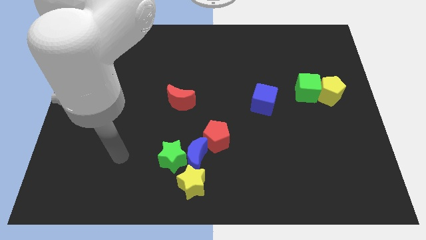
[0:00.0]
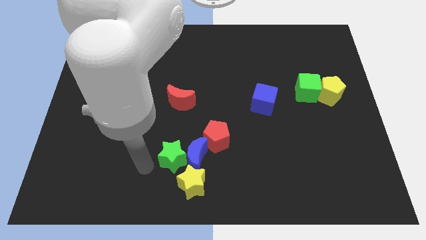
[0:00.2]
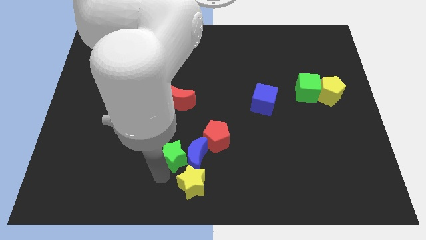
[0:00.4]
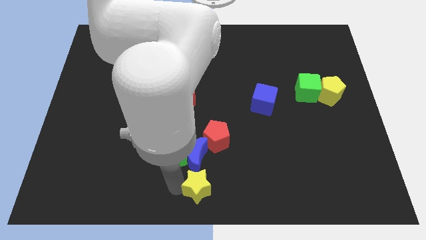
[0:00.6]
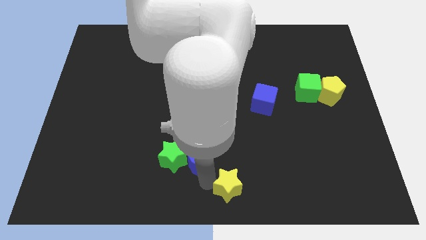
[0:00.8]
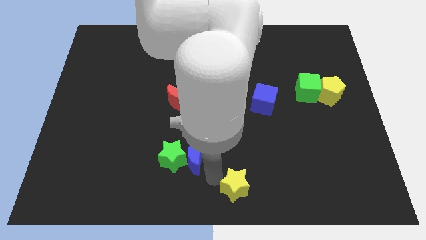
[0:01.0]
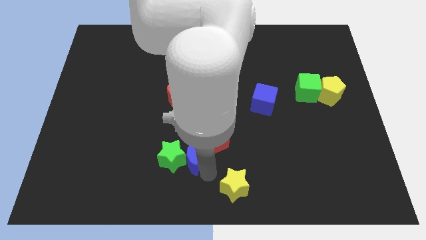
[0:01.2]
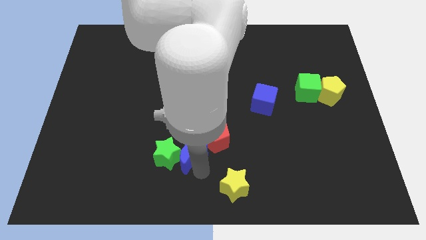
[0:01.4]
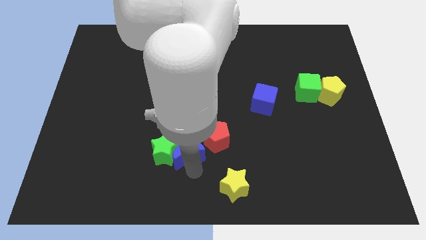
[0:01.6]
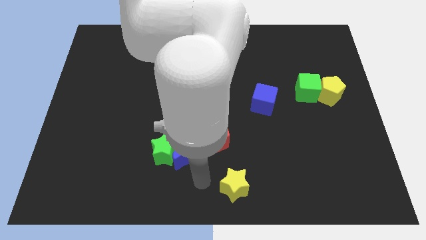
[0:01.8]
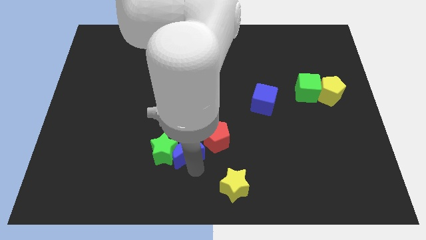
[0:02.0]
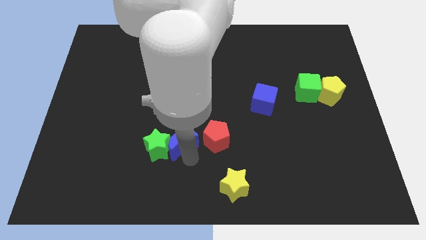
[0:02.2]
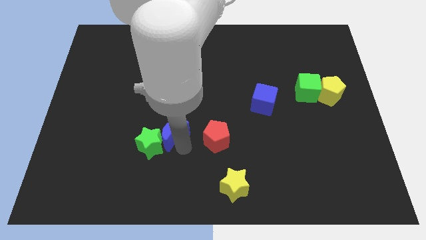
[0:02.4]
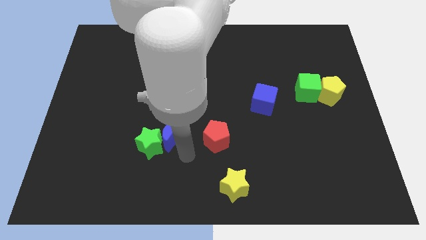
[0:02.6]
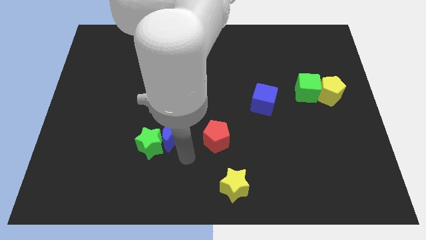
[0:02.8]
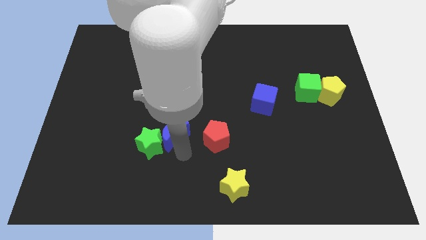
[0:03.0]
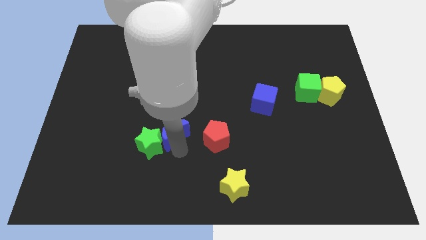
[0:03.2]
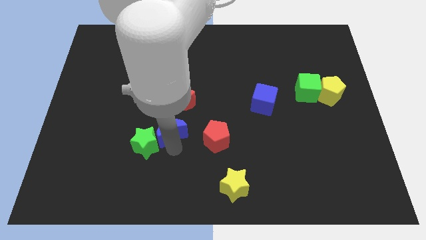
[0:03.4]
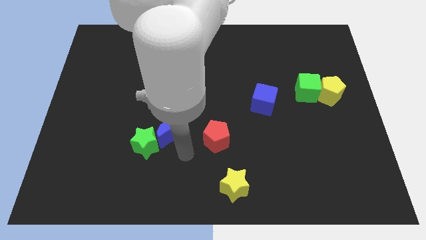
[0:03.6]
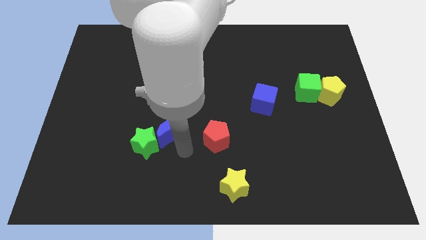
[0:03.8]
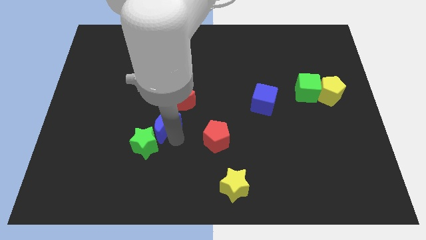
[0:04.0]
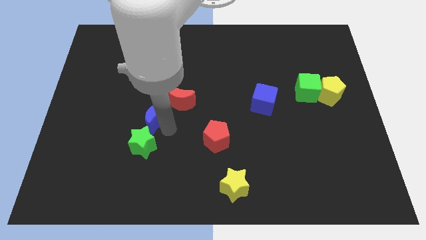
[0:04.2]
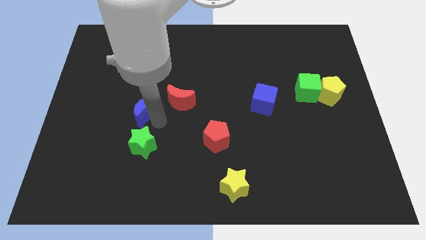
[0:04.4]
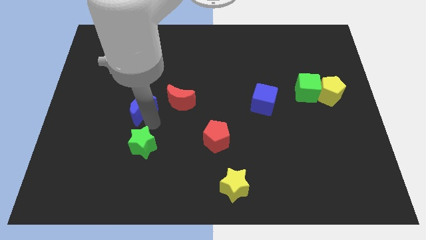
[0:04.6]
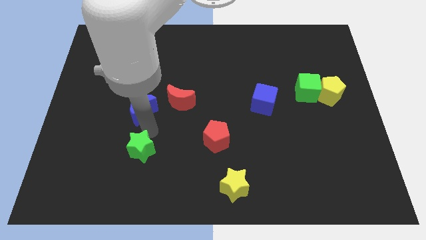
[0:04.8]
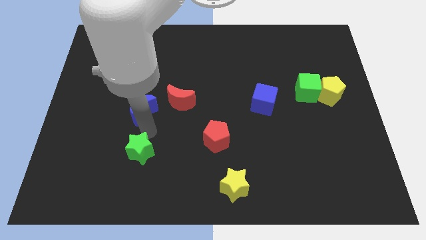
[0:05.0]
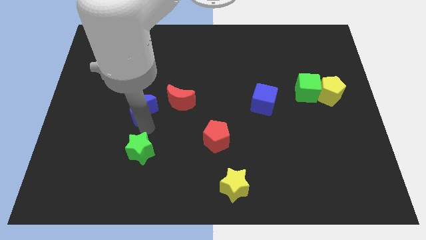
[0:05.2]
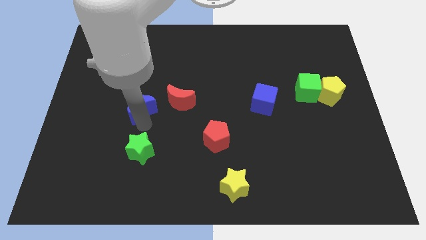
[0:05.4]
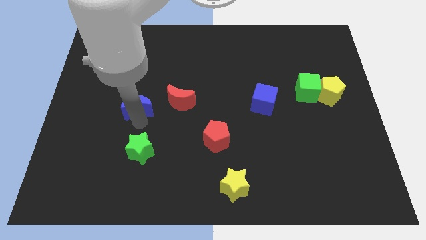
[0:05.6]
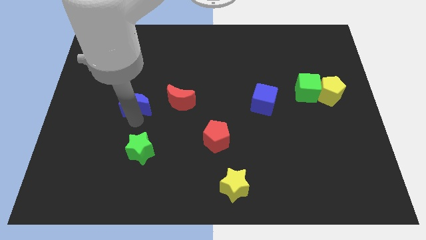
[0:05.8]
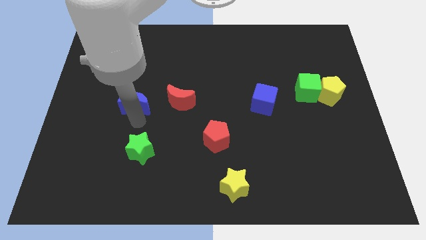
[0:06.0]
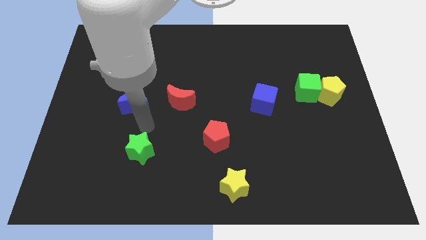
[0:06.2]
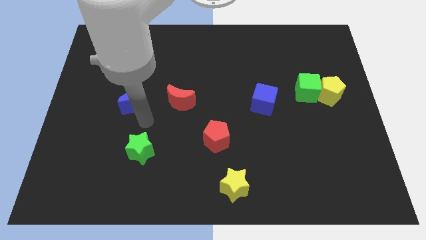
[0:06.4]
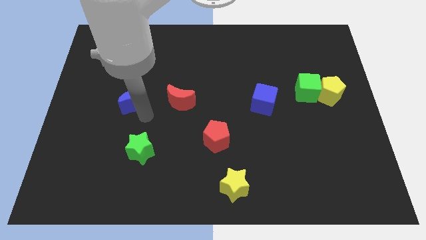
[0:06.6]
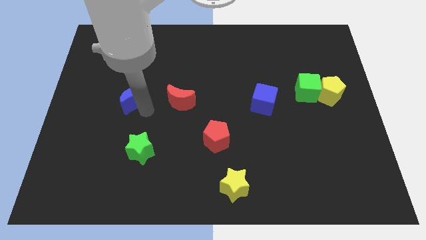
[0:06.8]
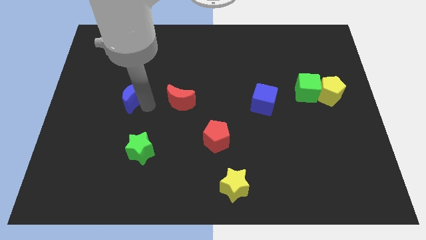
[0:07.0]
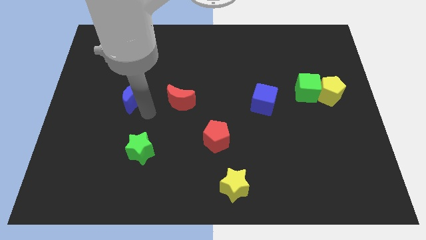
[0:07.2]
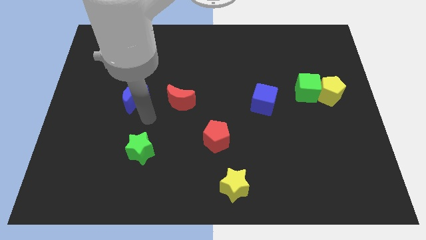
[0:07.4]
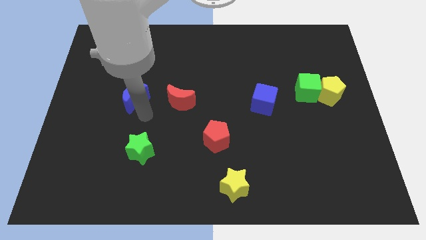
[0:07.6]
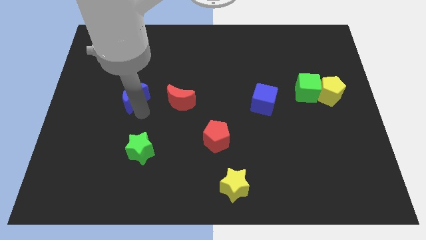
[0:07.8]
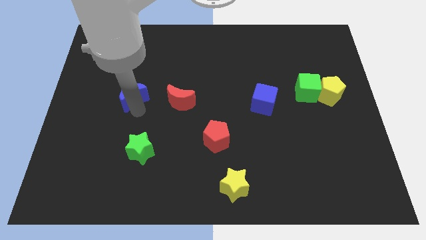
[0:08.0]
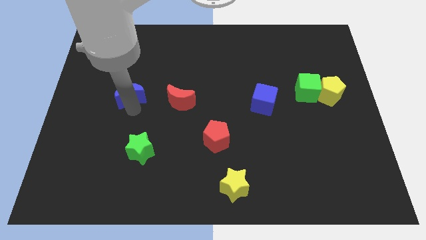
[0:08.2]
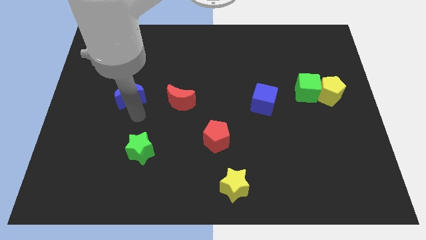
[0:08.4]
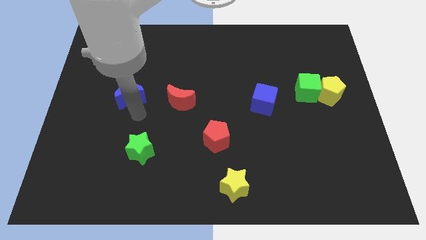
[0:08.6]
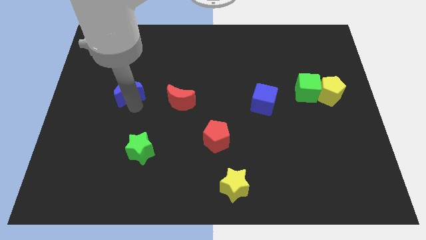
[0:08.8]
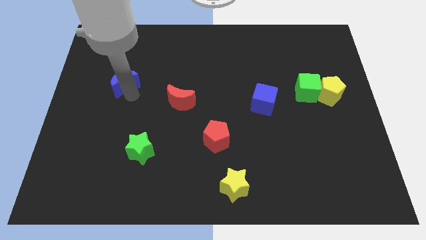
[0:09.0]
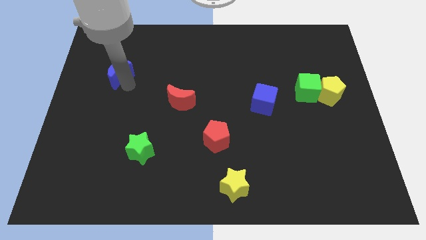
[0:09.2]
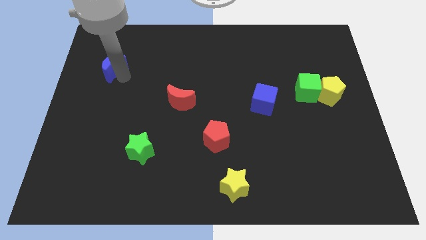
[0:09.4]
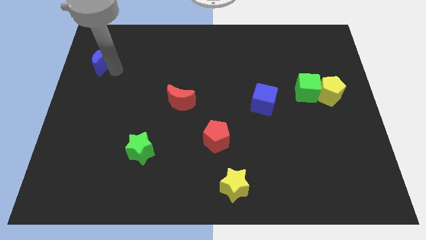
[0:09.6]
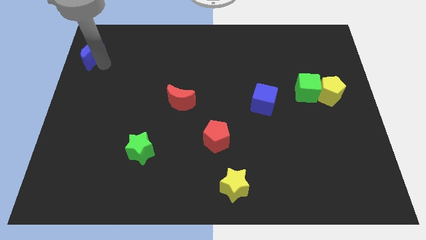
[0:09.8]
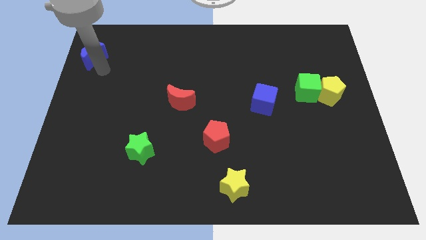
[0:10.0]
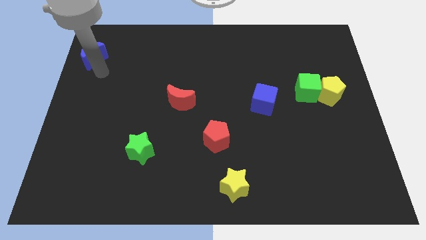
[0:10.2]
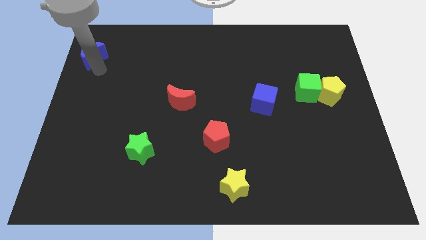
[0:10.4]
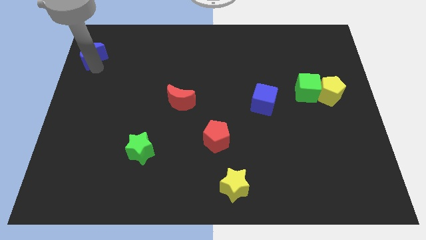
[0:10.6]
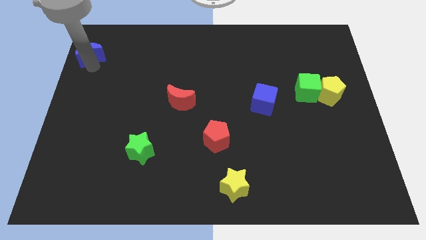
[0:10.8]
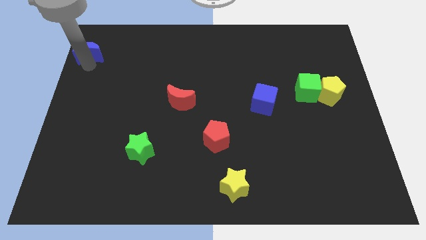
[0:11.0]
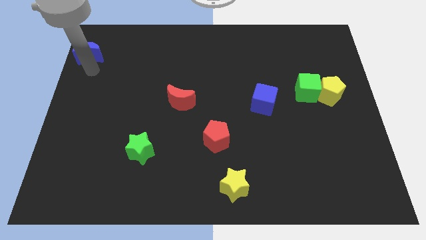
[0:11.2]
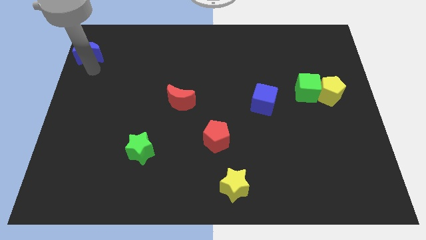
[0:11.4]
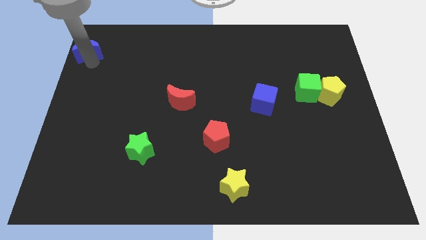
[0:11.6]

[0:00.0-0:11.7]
put the blue moon to the upper left corner

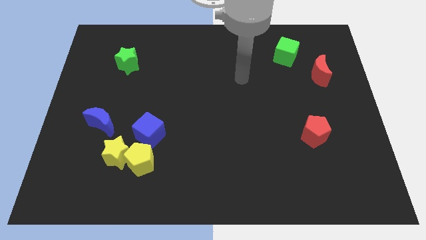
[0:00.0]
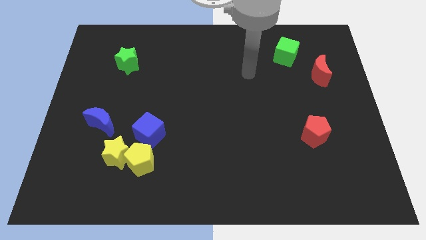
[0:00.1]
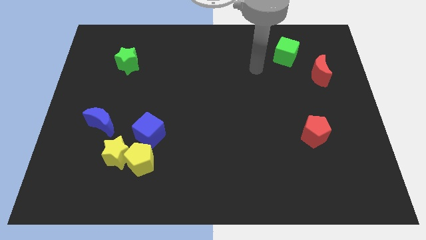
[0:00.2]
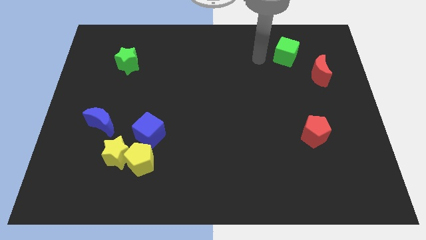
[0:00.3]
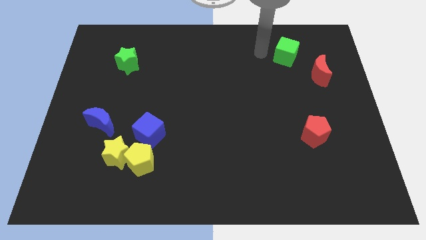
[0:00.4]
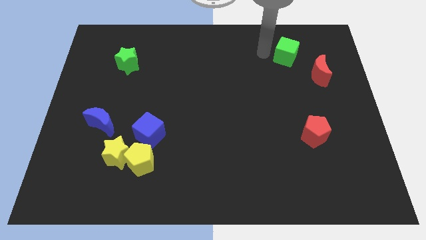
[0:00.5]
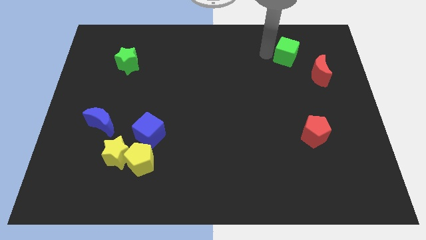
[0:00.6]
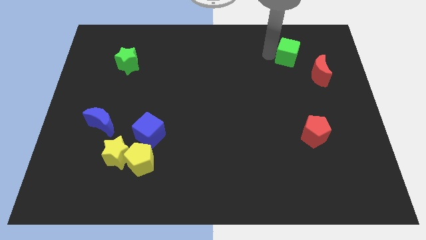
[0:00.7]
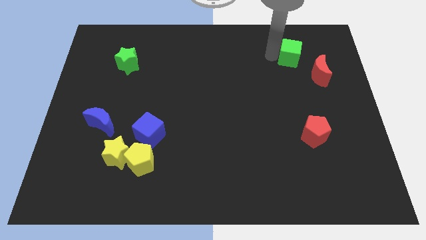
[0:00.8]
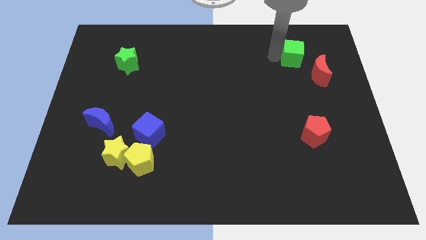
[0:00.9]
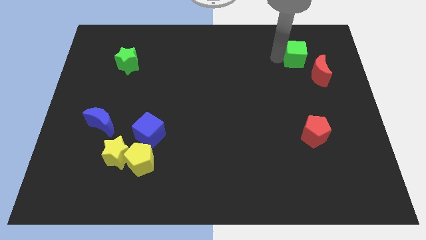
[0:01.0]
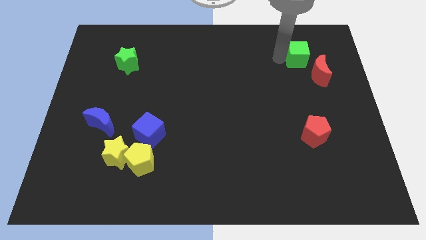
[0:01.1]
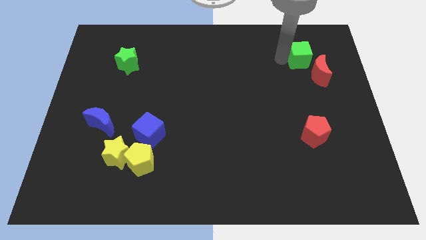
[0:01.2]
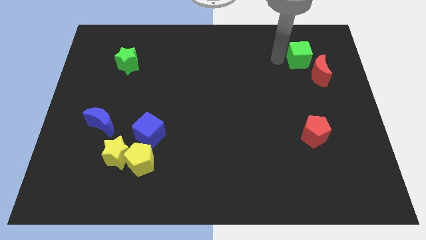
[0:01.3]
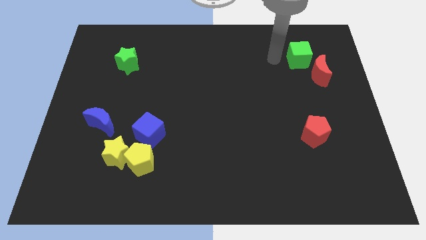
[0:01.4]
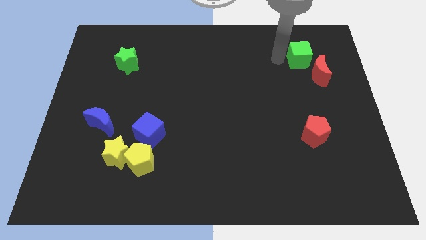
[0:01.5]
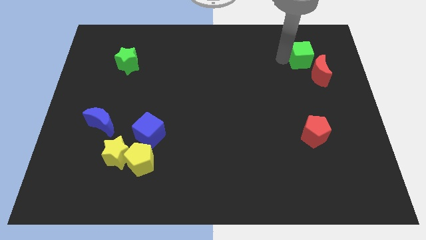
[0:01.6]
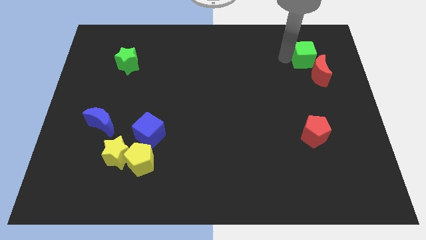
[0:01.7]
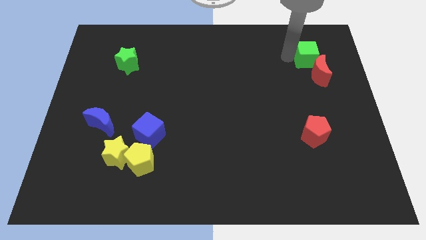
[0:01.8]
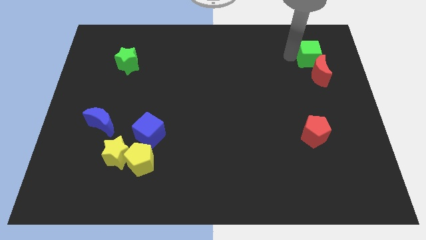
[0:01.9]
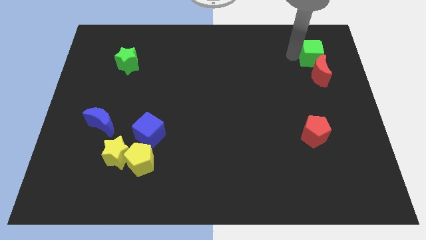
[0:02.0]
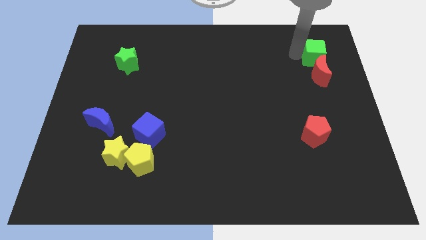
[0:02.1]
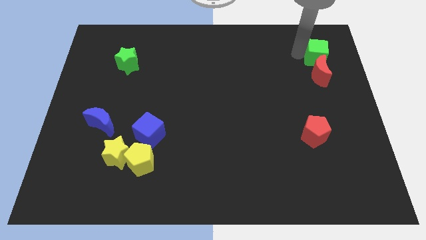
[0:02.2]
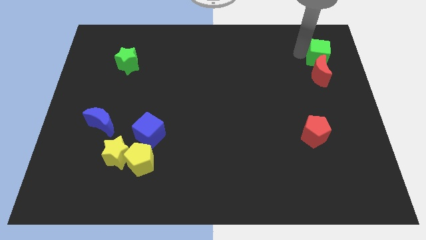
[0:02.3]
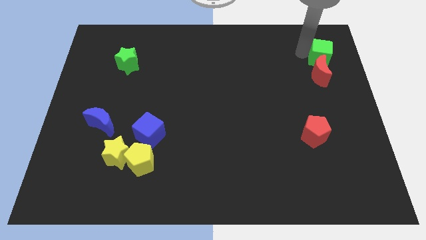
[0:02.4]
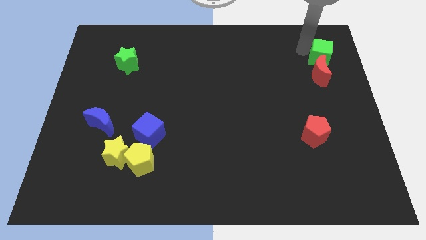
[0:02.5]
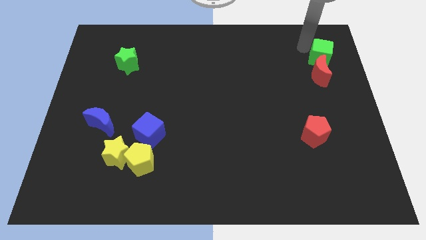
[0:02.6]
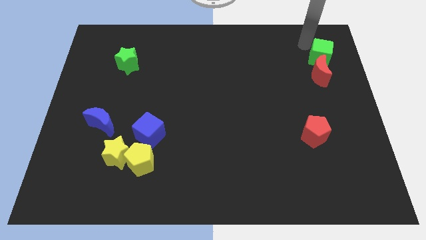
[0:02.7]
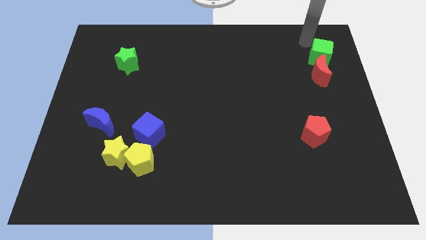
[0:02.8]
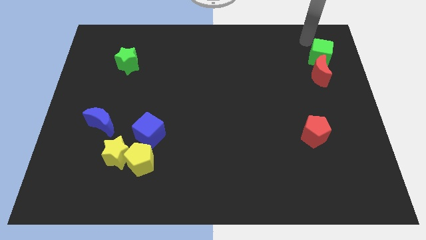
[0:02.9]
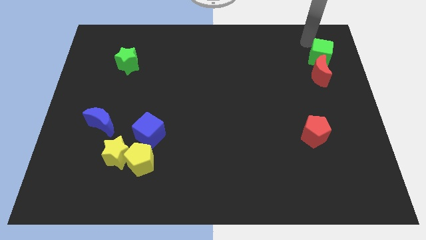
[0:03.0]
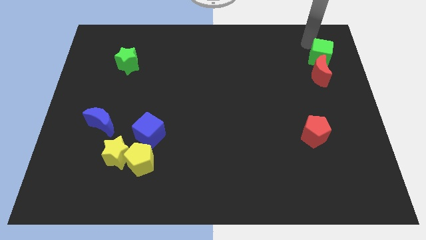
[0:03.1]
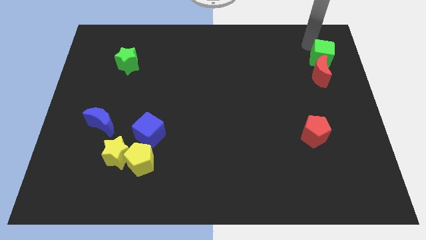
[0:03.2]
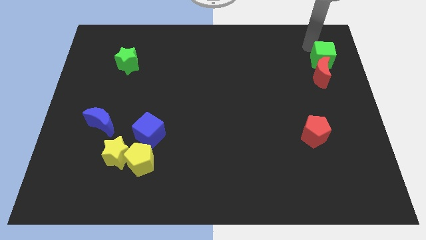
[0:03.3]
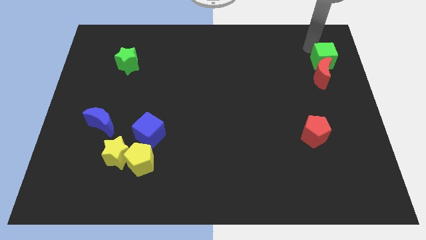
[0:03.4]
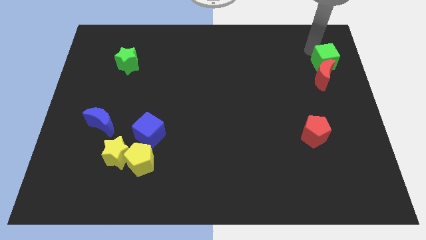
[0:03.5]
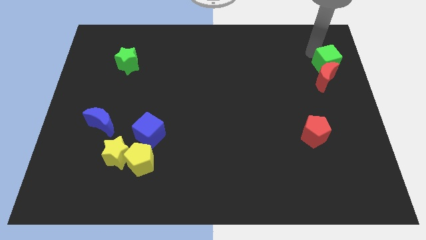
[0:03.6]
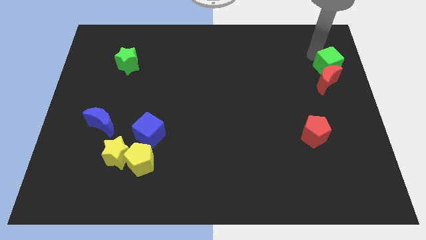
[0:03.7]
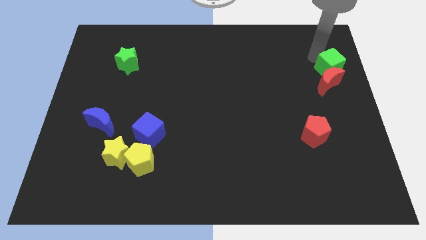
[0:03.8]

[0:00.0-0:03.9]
put the green cube to the right side of the board
